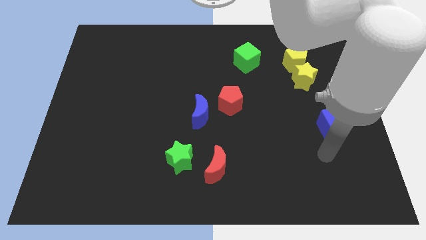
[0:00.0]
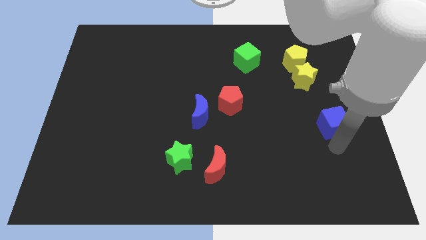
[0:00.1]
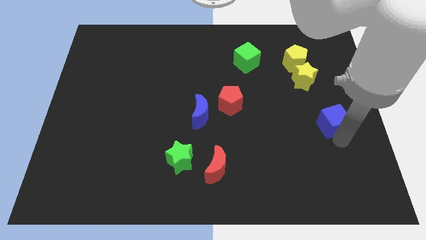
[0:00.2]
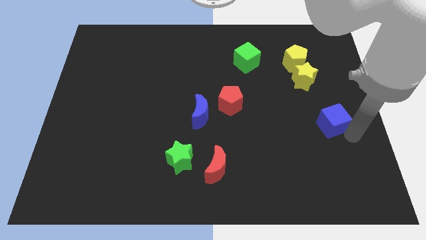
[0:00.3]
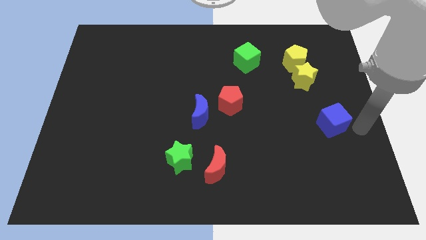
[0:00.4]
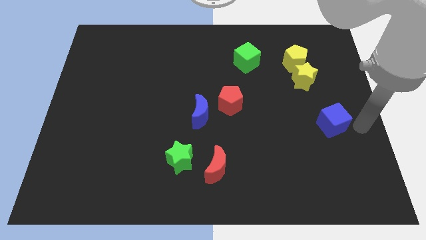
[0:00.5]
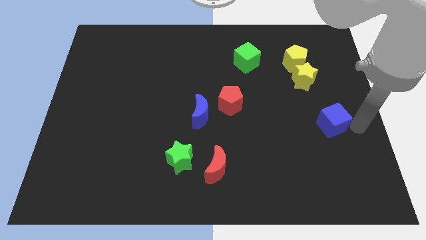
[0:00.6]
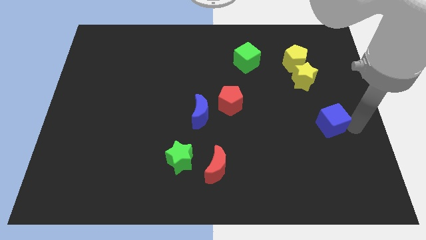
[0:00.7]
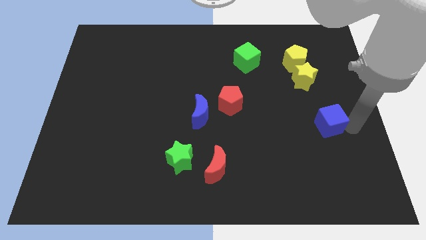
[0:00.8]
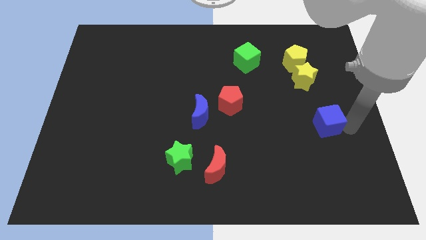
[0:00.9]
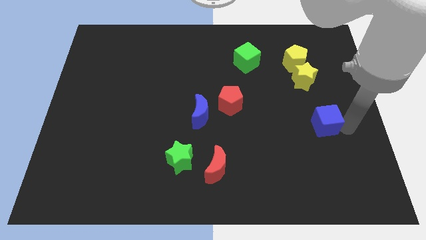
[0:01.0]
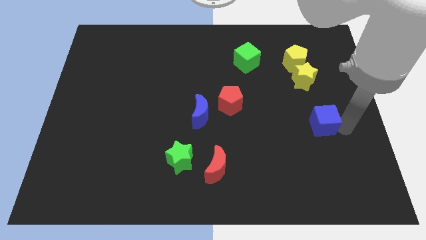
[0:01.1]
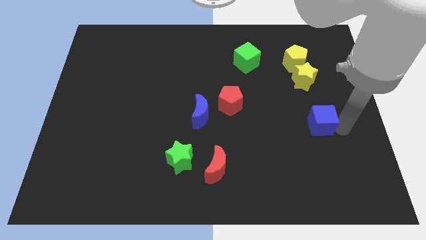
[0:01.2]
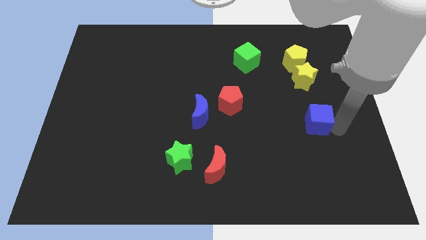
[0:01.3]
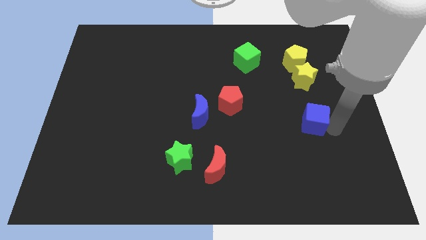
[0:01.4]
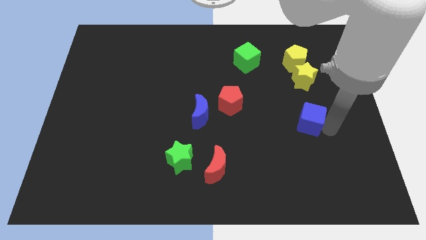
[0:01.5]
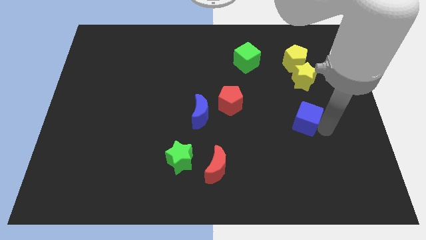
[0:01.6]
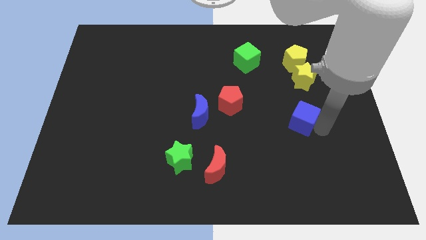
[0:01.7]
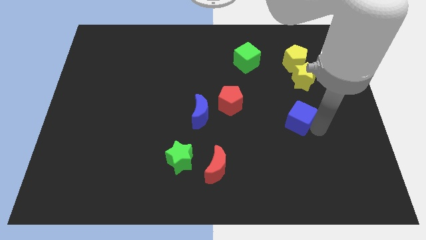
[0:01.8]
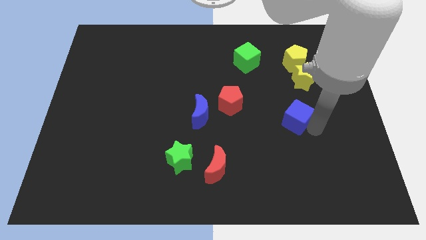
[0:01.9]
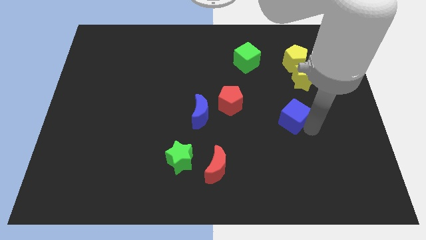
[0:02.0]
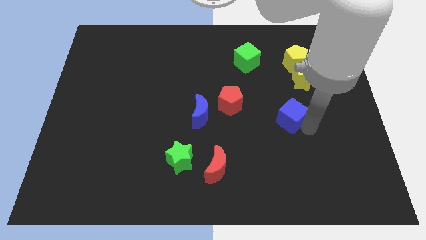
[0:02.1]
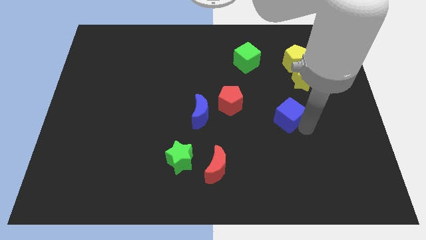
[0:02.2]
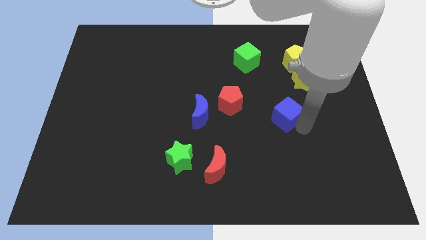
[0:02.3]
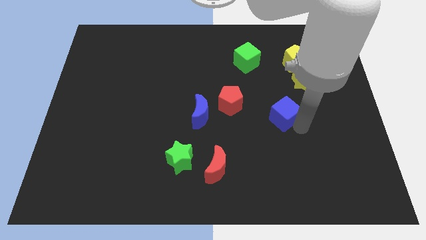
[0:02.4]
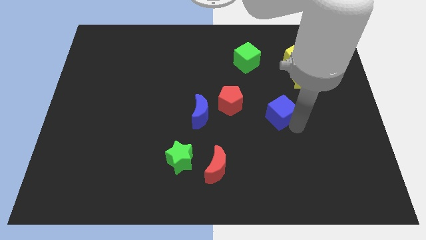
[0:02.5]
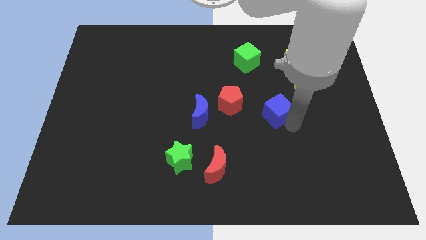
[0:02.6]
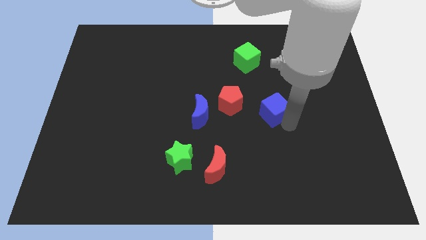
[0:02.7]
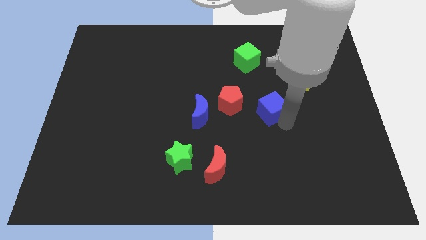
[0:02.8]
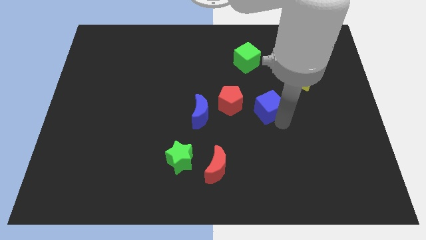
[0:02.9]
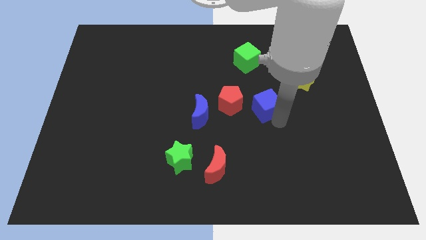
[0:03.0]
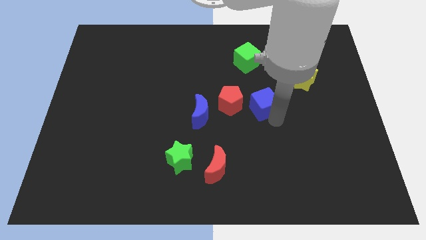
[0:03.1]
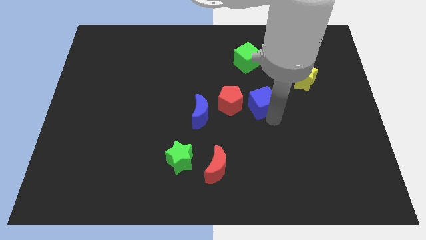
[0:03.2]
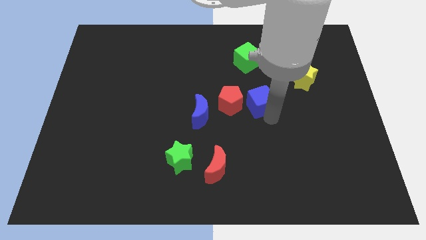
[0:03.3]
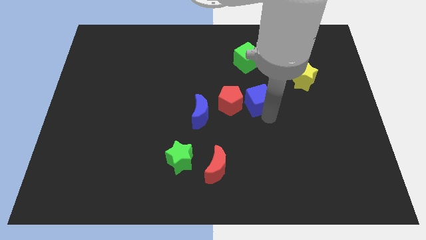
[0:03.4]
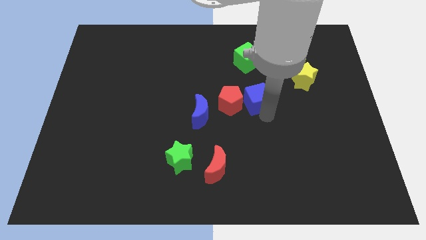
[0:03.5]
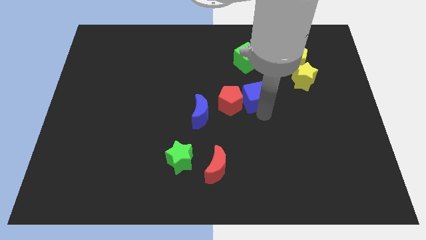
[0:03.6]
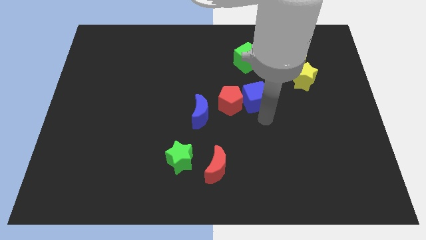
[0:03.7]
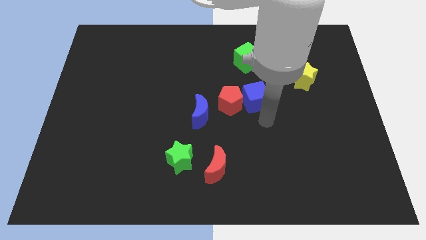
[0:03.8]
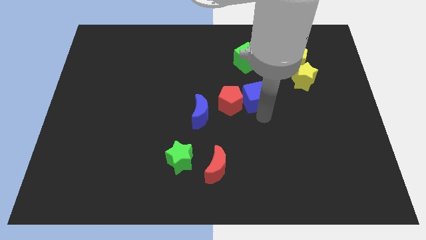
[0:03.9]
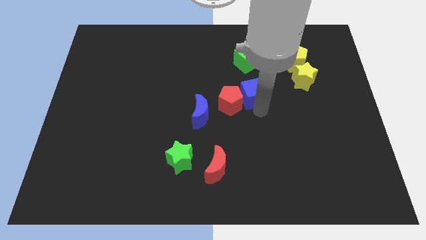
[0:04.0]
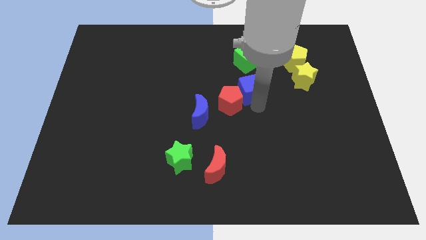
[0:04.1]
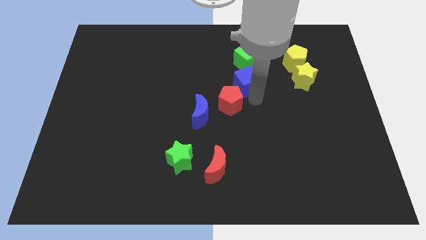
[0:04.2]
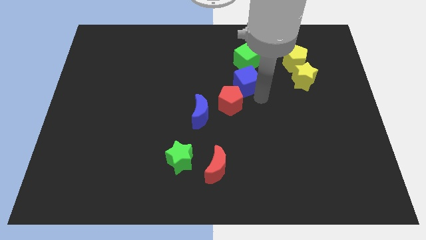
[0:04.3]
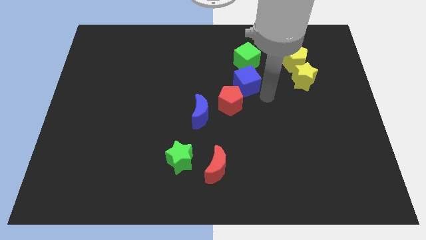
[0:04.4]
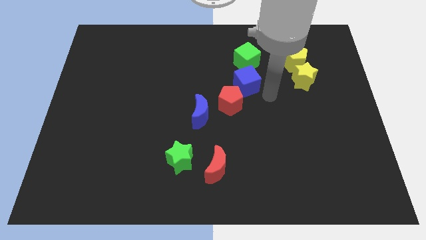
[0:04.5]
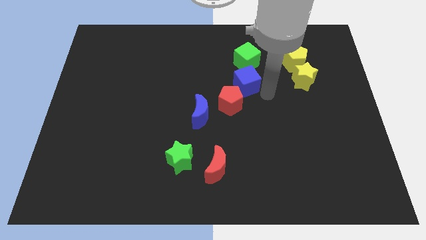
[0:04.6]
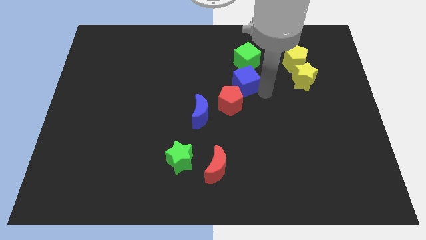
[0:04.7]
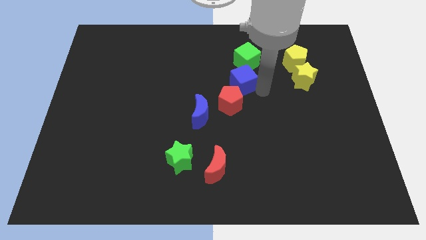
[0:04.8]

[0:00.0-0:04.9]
put the blue cube diagonally down and to the left of the green cube

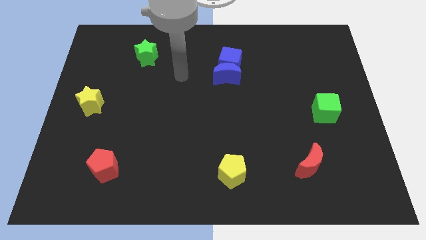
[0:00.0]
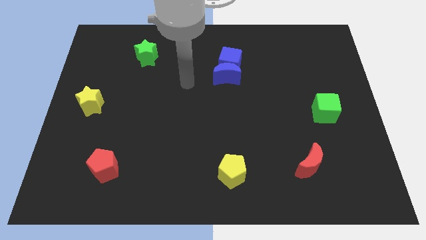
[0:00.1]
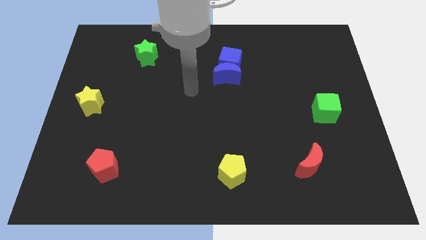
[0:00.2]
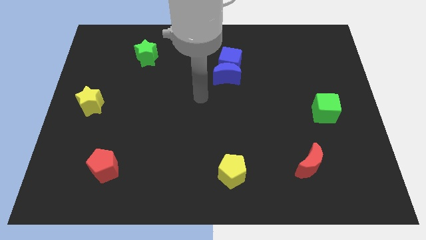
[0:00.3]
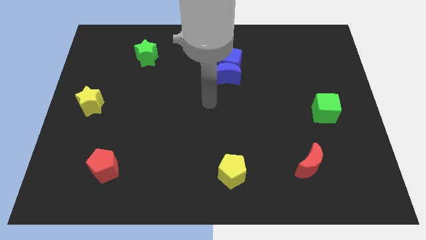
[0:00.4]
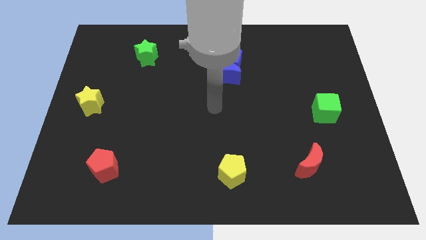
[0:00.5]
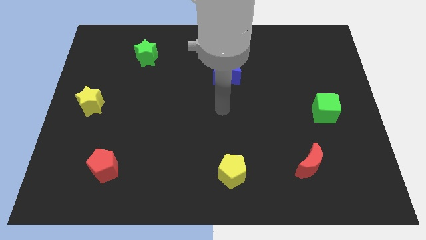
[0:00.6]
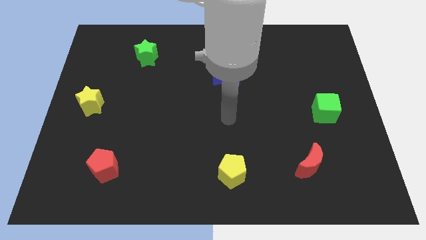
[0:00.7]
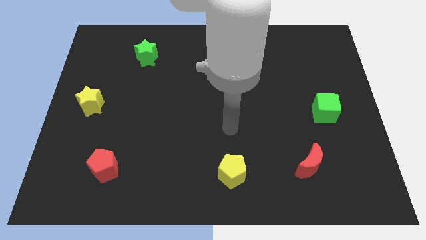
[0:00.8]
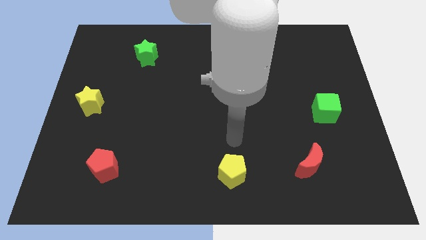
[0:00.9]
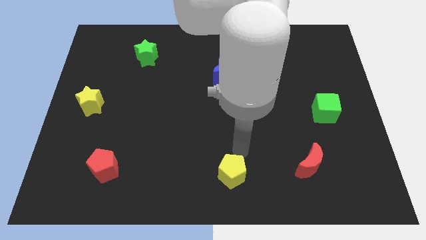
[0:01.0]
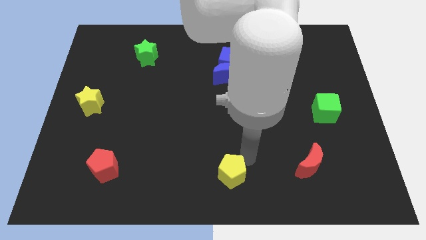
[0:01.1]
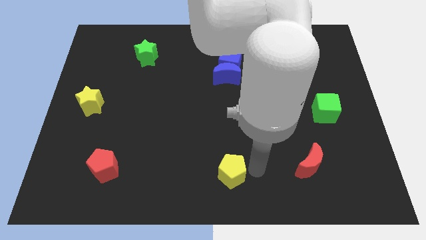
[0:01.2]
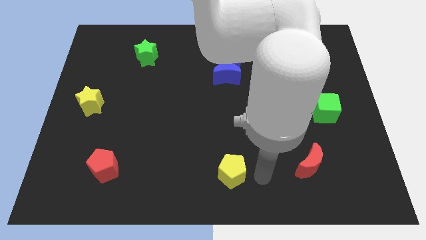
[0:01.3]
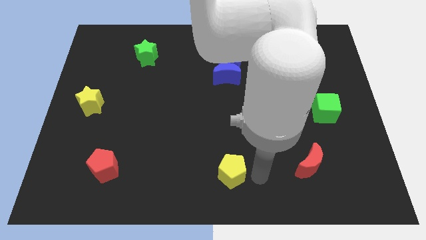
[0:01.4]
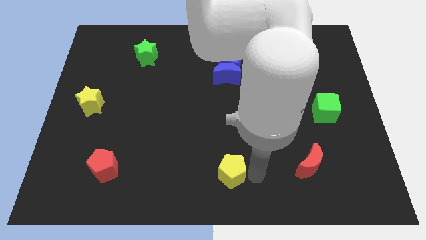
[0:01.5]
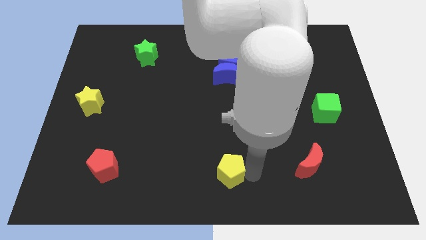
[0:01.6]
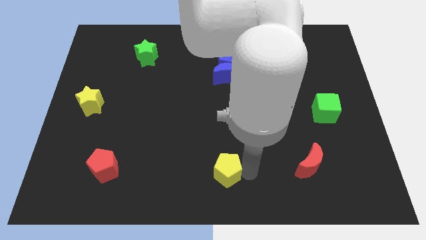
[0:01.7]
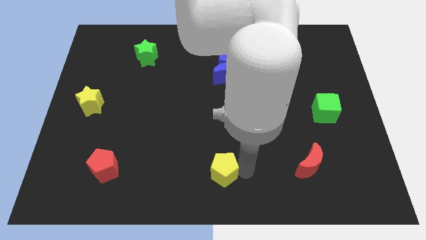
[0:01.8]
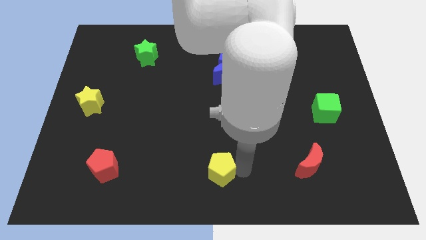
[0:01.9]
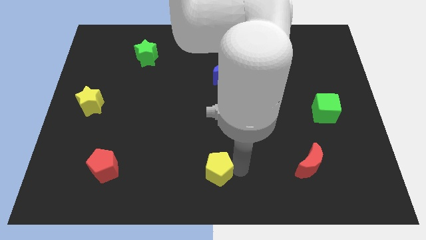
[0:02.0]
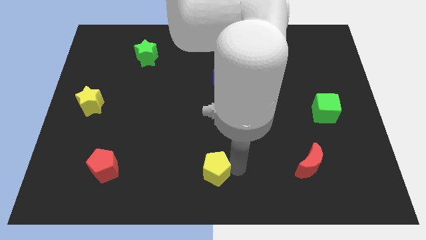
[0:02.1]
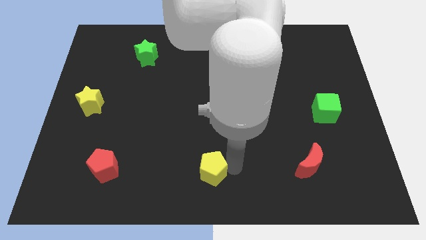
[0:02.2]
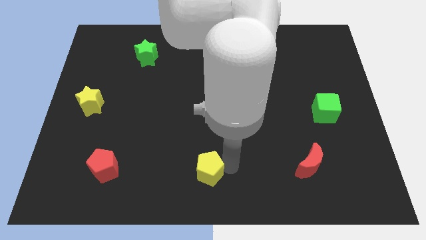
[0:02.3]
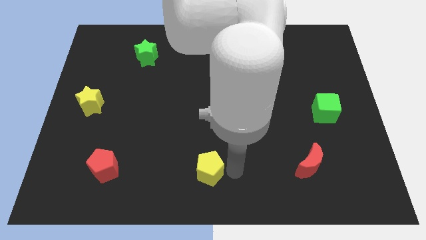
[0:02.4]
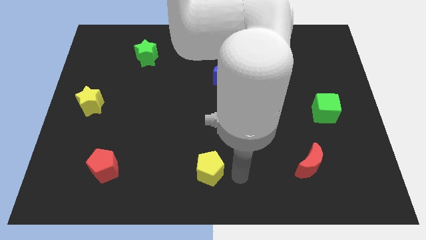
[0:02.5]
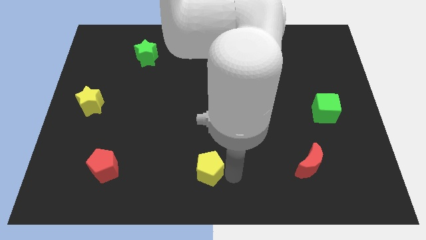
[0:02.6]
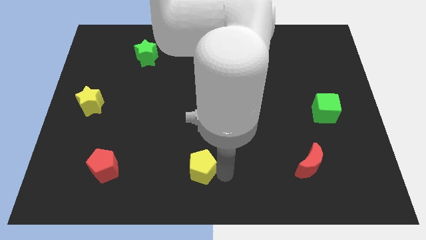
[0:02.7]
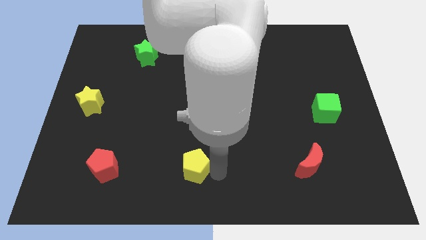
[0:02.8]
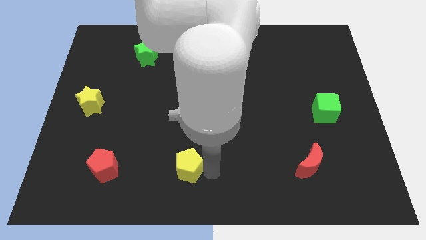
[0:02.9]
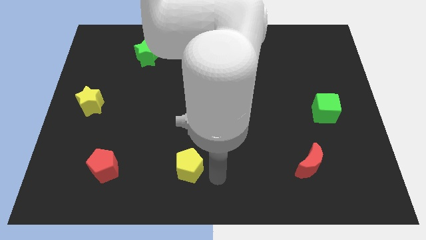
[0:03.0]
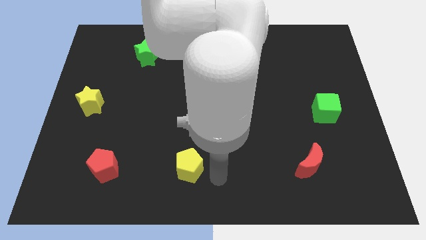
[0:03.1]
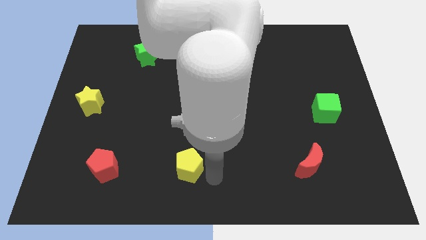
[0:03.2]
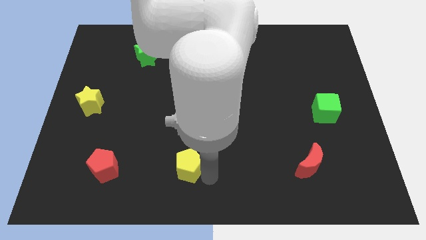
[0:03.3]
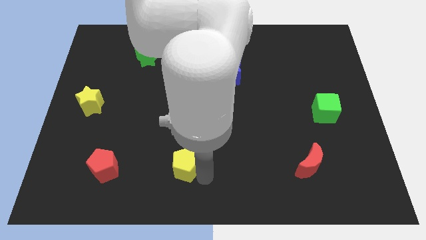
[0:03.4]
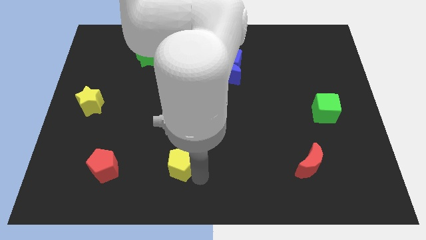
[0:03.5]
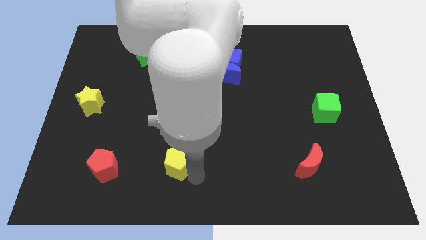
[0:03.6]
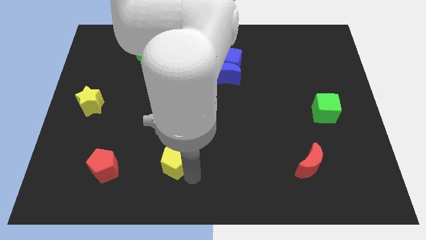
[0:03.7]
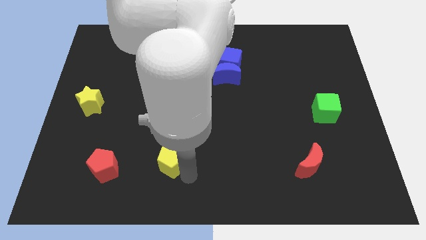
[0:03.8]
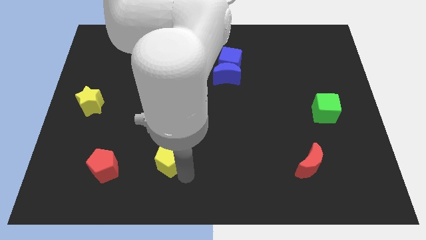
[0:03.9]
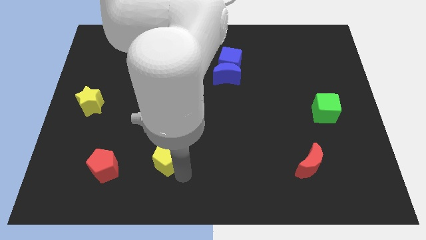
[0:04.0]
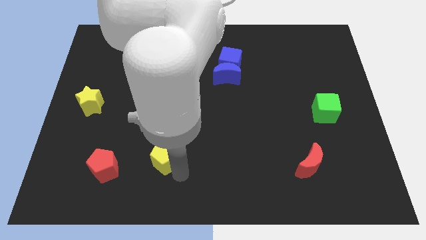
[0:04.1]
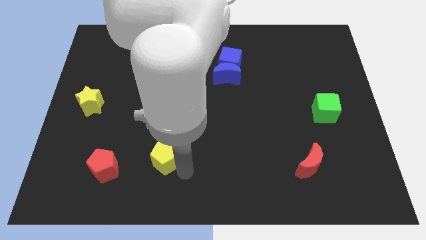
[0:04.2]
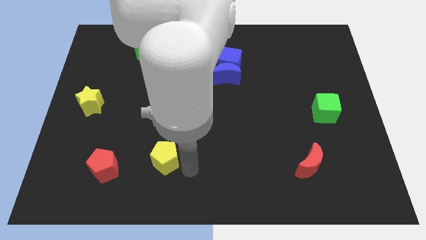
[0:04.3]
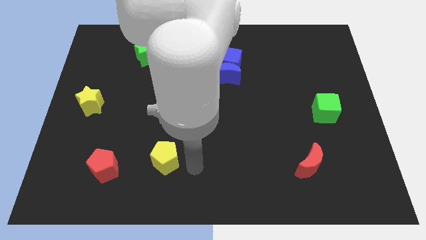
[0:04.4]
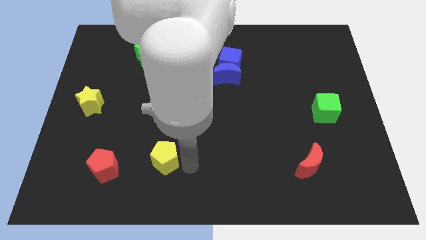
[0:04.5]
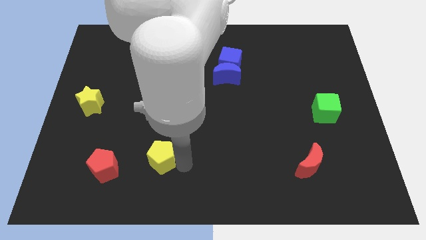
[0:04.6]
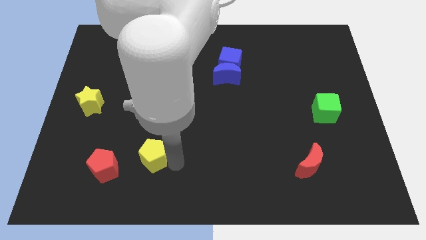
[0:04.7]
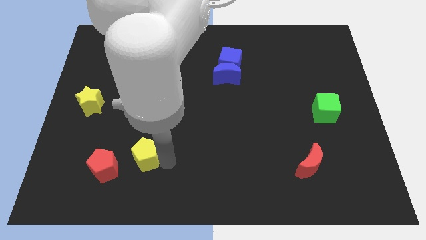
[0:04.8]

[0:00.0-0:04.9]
slide the yellow pentagon diagonally up and to the right of the red pentagon
